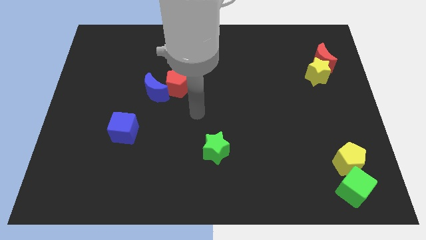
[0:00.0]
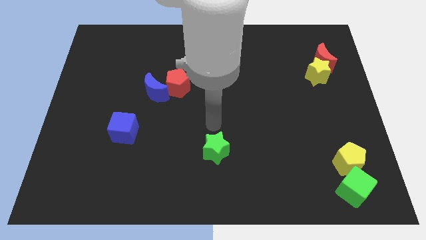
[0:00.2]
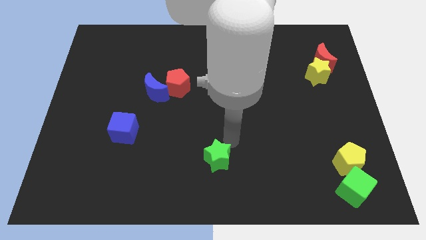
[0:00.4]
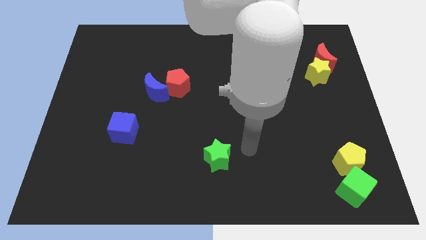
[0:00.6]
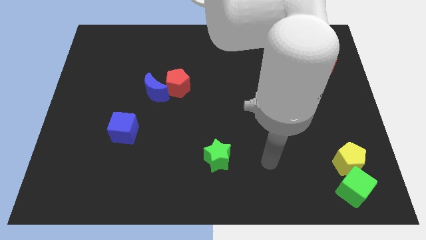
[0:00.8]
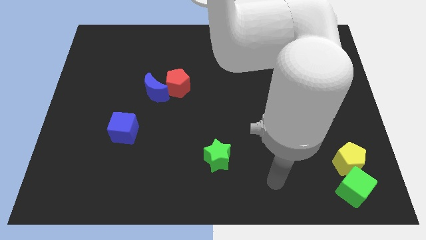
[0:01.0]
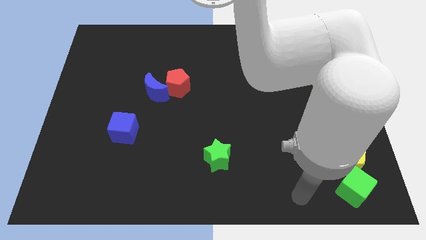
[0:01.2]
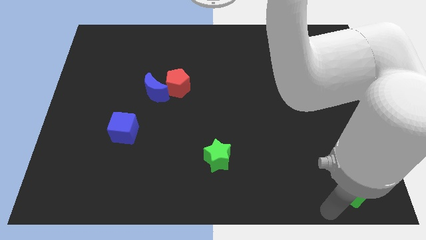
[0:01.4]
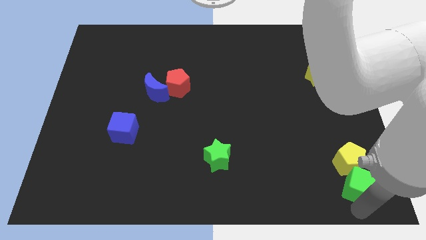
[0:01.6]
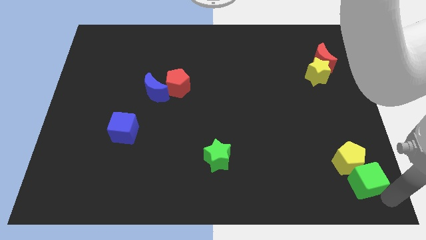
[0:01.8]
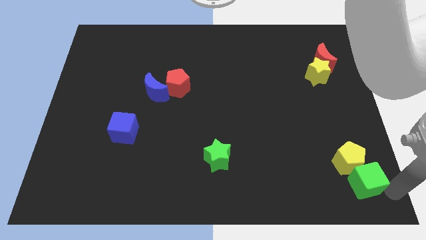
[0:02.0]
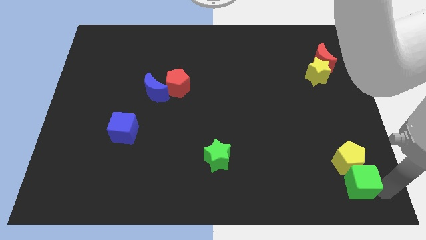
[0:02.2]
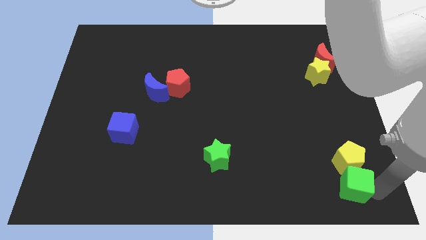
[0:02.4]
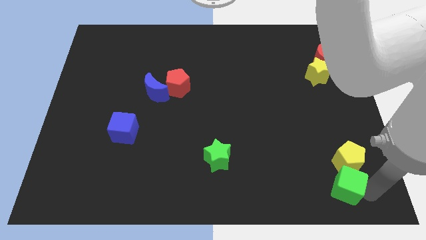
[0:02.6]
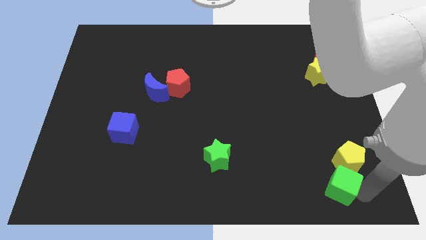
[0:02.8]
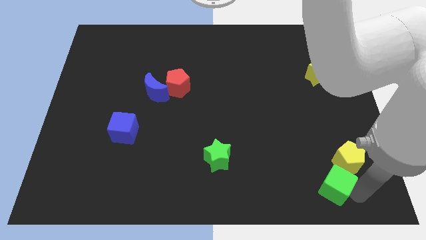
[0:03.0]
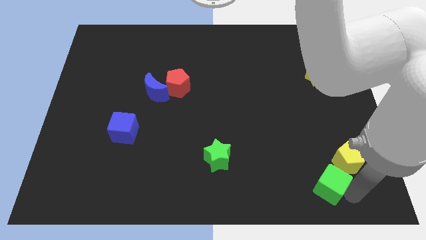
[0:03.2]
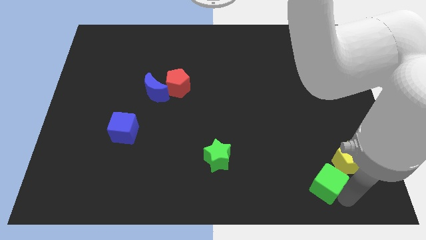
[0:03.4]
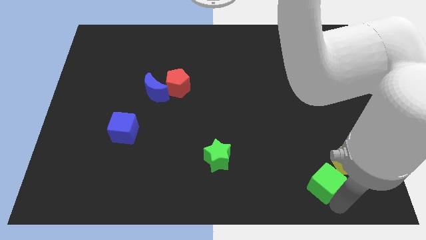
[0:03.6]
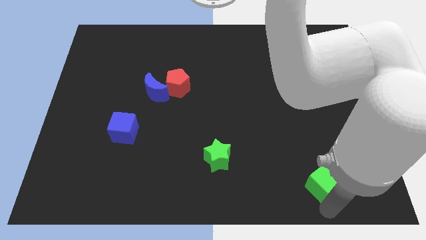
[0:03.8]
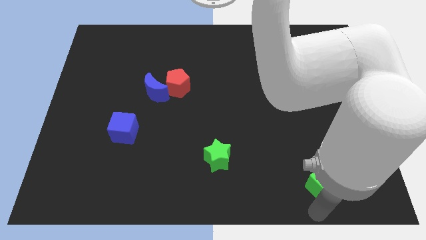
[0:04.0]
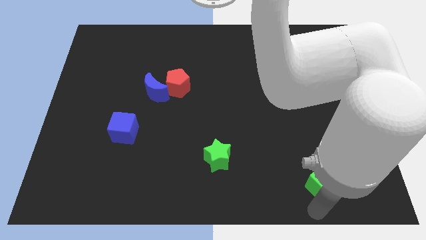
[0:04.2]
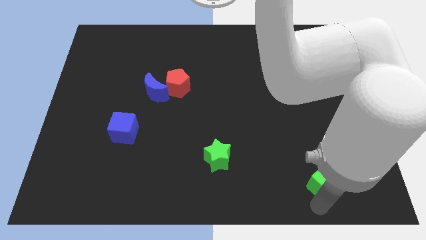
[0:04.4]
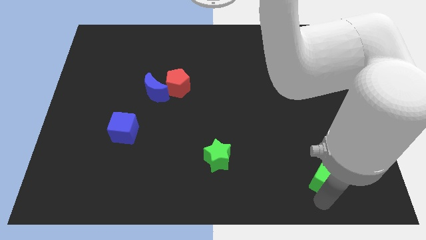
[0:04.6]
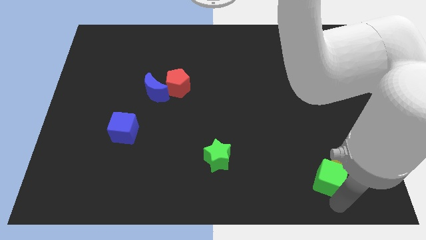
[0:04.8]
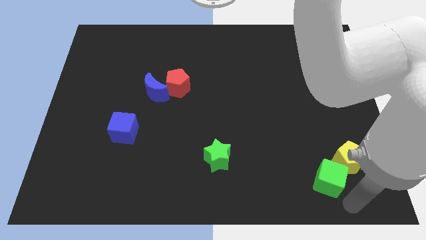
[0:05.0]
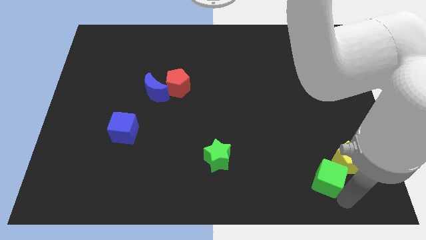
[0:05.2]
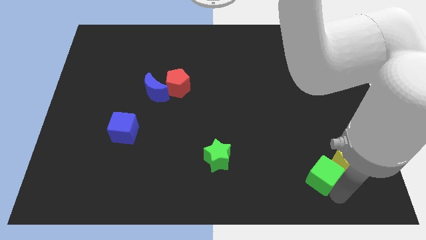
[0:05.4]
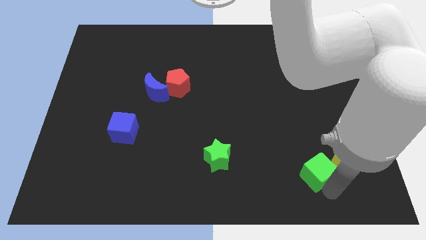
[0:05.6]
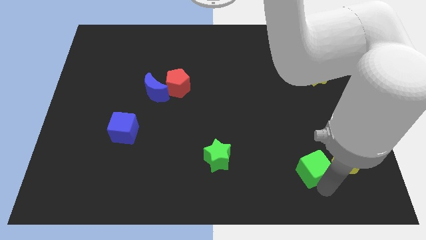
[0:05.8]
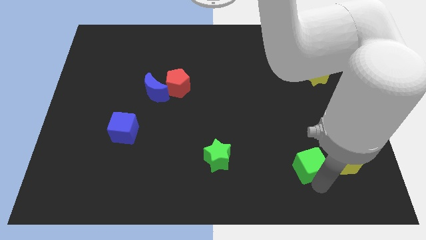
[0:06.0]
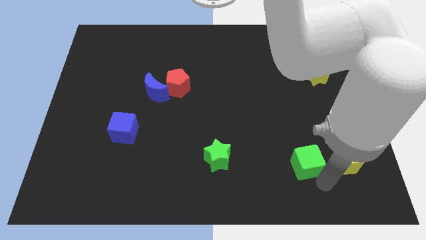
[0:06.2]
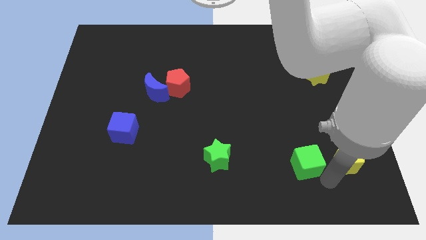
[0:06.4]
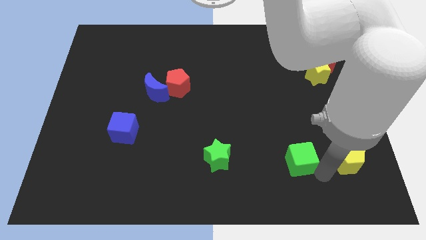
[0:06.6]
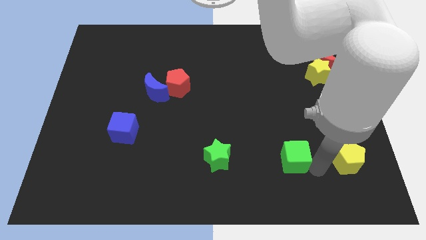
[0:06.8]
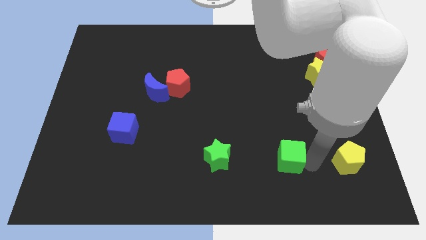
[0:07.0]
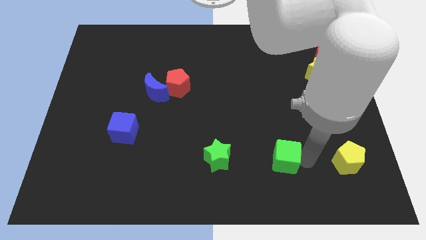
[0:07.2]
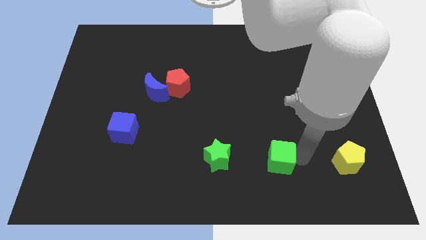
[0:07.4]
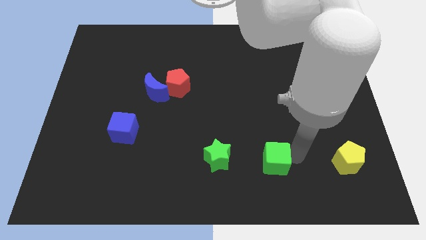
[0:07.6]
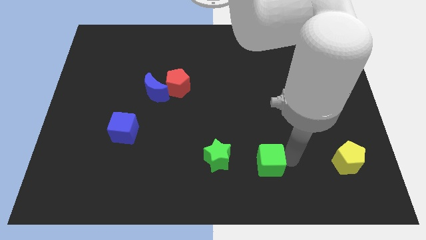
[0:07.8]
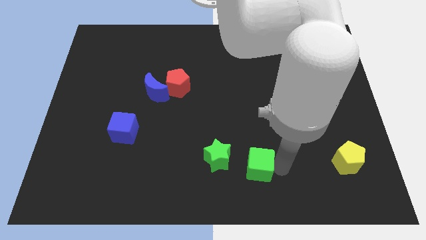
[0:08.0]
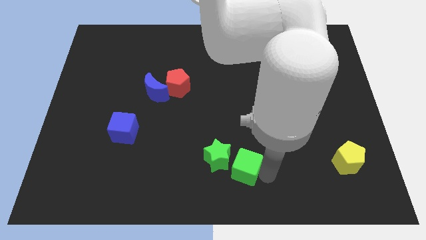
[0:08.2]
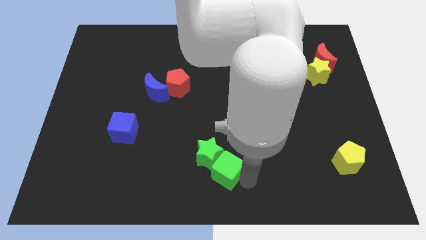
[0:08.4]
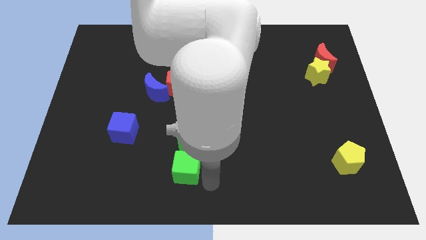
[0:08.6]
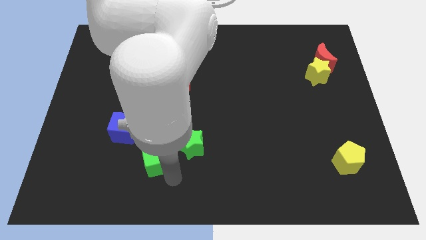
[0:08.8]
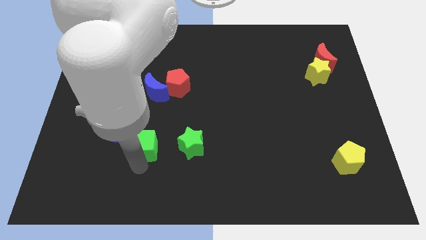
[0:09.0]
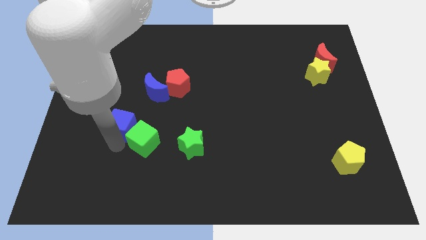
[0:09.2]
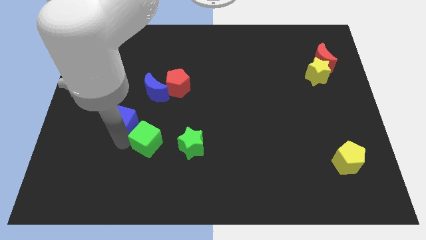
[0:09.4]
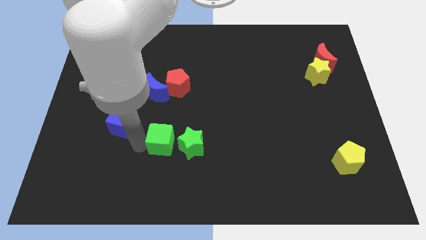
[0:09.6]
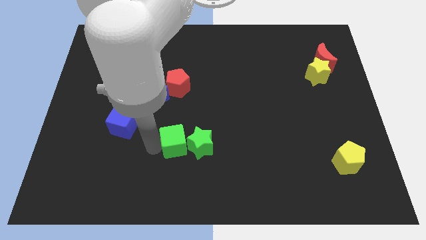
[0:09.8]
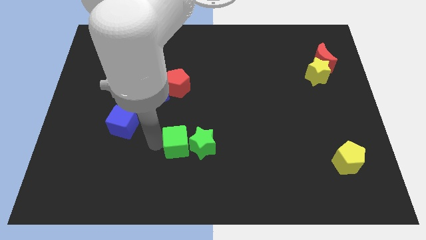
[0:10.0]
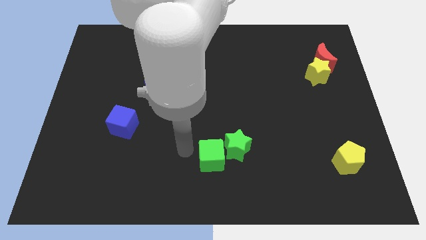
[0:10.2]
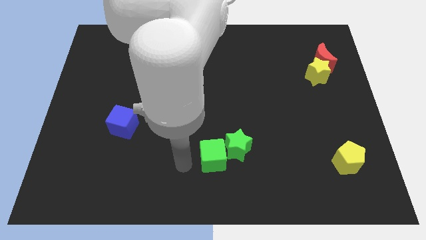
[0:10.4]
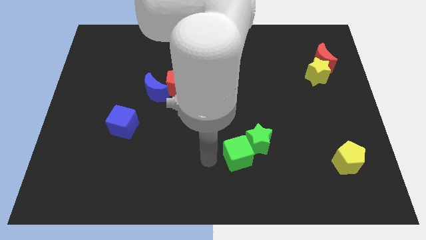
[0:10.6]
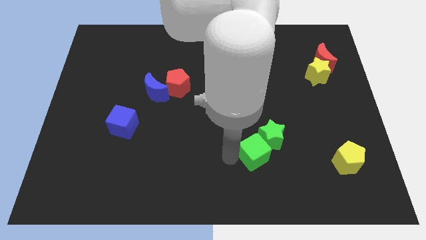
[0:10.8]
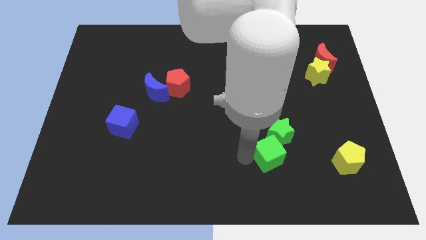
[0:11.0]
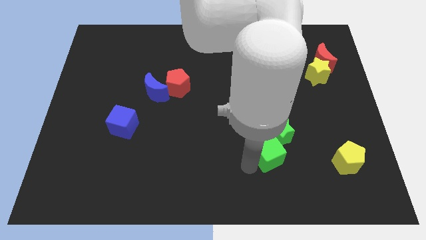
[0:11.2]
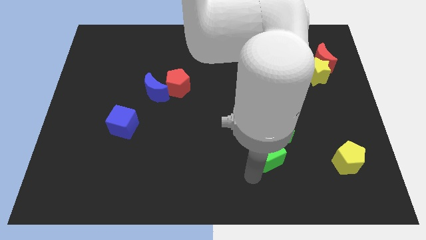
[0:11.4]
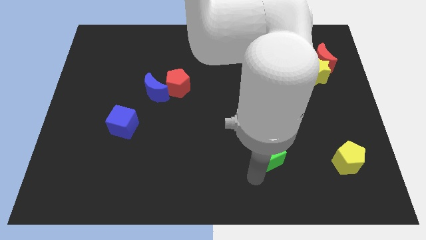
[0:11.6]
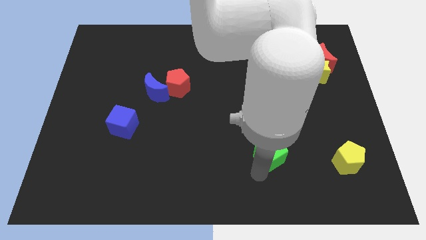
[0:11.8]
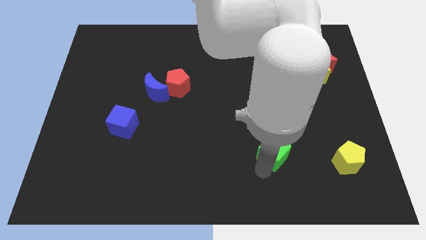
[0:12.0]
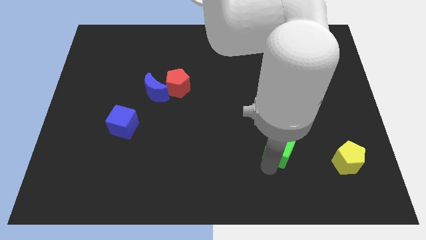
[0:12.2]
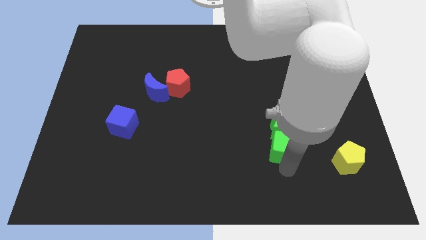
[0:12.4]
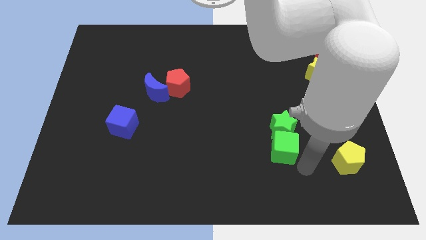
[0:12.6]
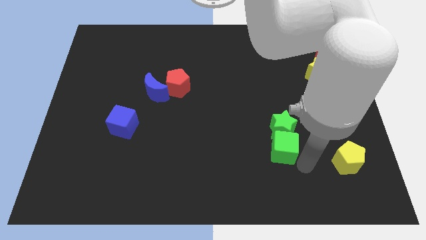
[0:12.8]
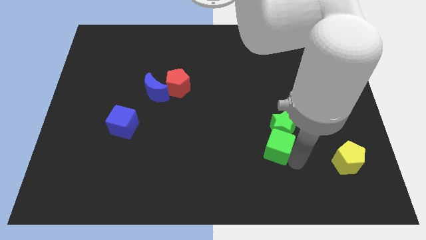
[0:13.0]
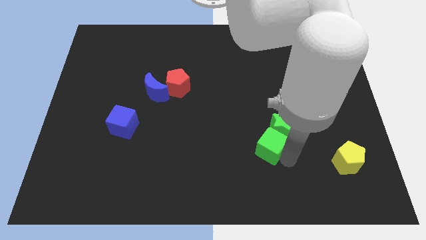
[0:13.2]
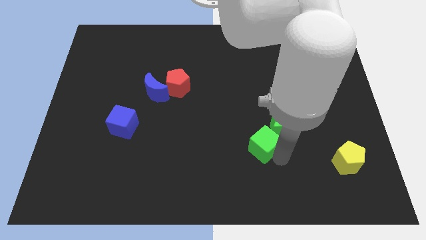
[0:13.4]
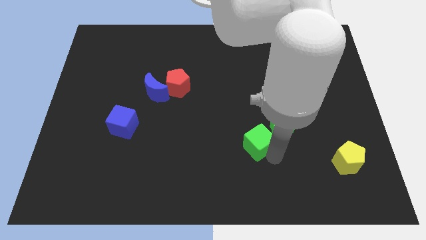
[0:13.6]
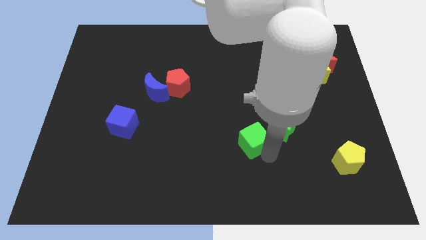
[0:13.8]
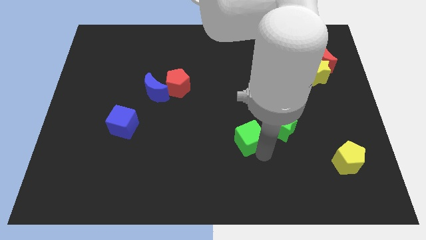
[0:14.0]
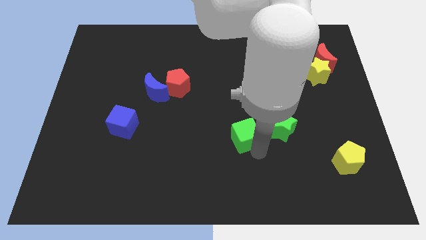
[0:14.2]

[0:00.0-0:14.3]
push the green cube to the middle
